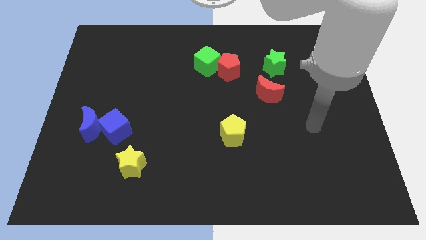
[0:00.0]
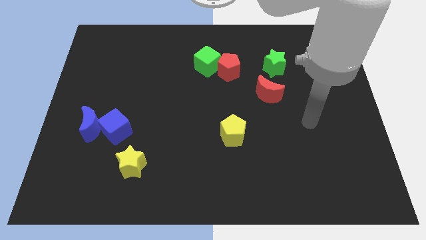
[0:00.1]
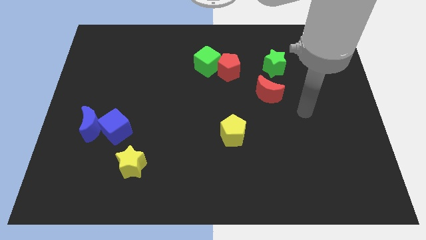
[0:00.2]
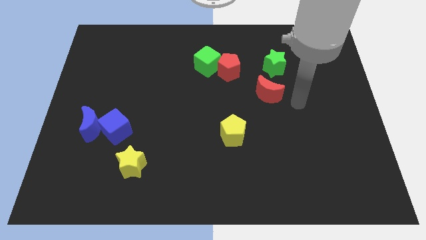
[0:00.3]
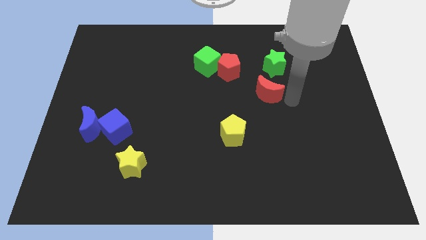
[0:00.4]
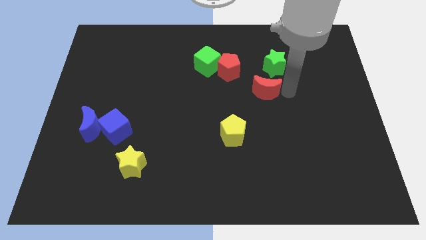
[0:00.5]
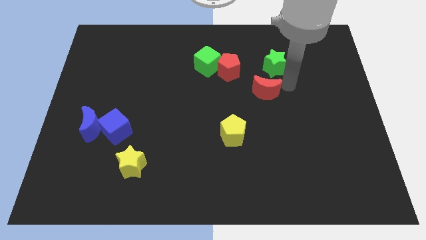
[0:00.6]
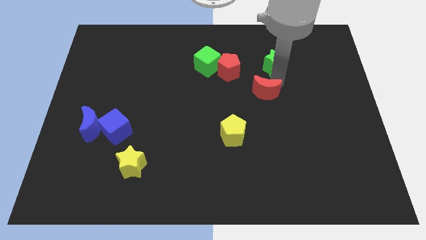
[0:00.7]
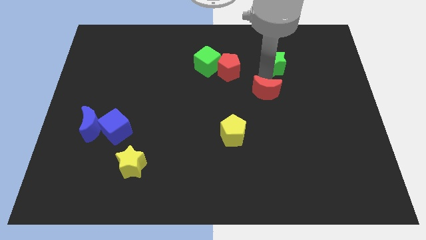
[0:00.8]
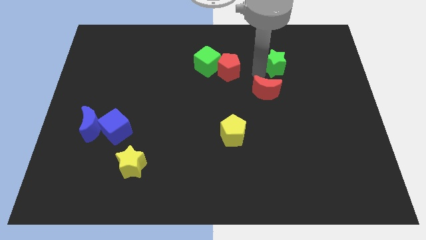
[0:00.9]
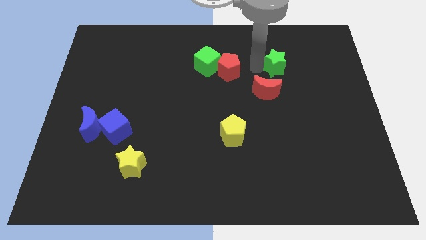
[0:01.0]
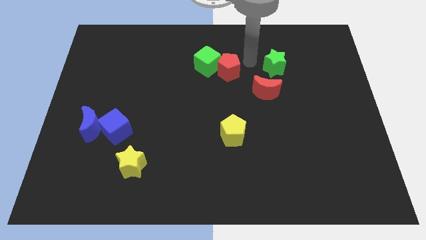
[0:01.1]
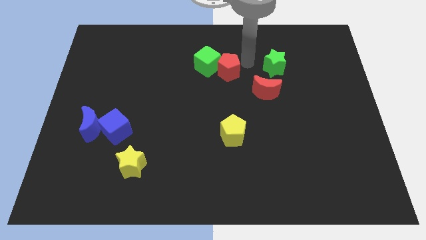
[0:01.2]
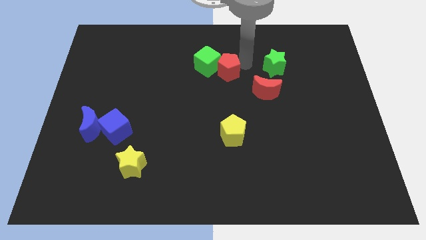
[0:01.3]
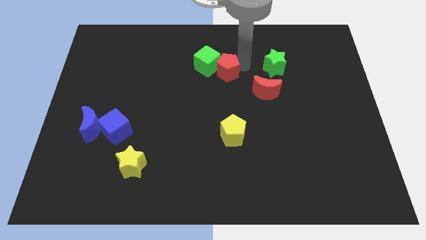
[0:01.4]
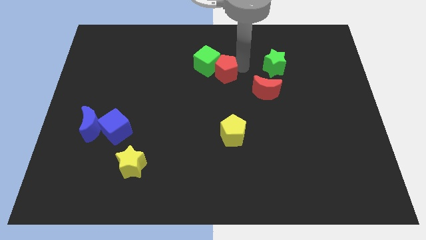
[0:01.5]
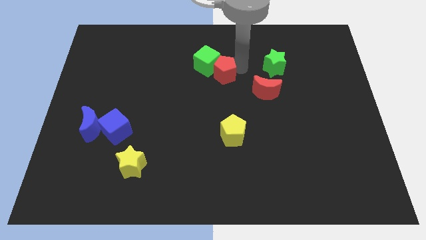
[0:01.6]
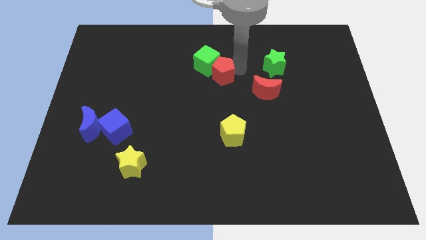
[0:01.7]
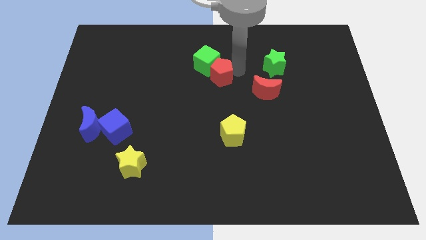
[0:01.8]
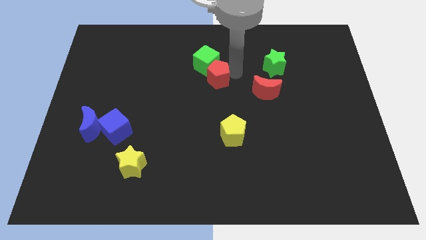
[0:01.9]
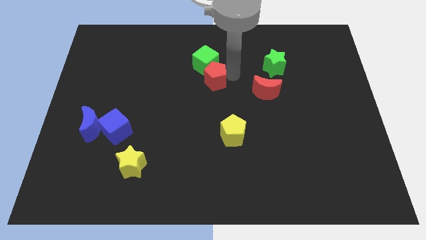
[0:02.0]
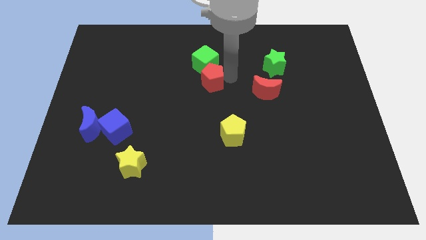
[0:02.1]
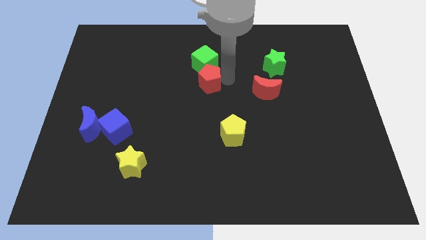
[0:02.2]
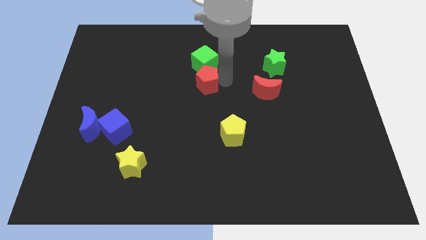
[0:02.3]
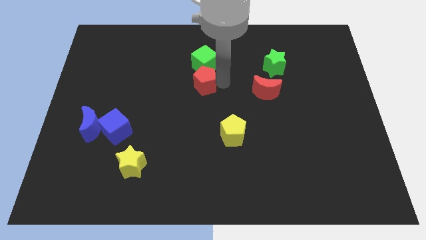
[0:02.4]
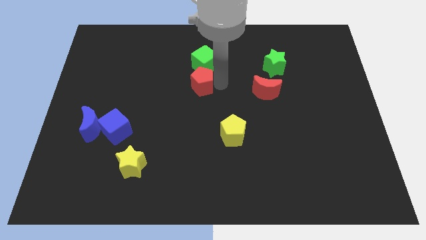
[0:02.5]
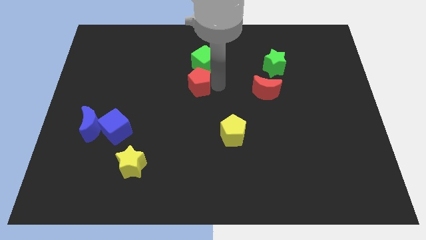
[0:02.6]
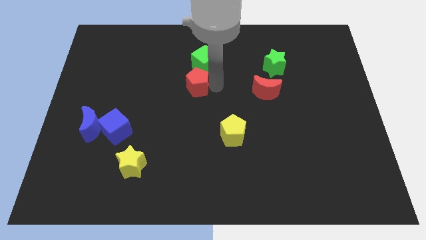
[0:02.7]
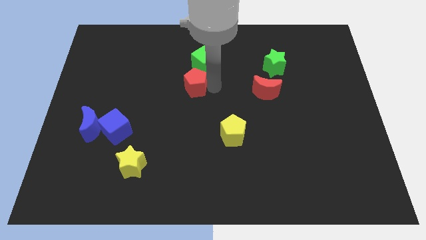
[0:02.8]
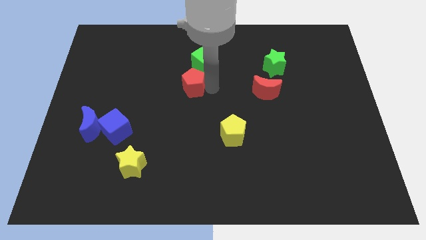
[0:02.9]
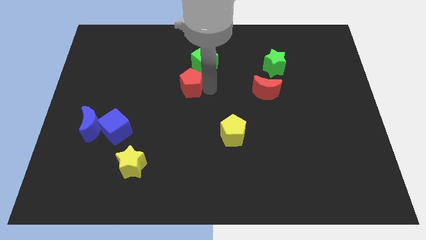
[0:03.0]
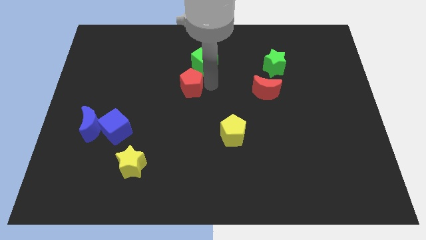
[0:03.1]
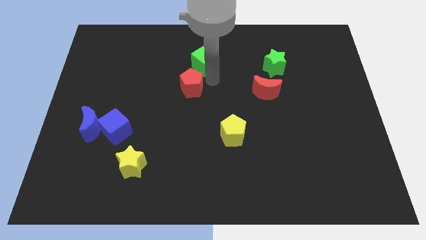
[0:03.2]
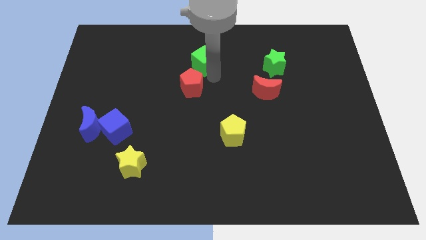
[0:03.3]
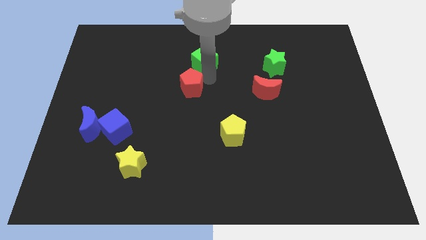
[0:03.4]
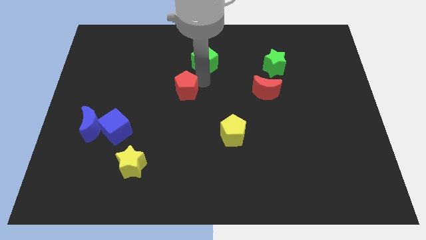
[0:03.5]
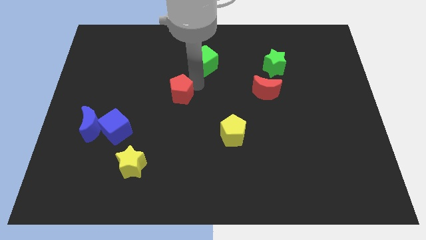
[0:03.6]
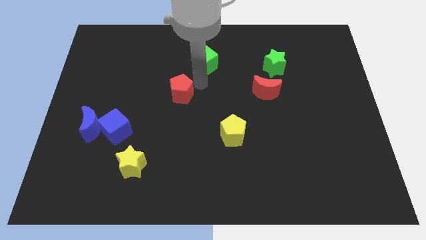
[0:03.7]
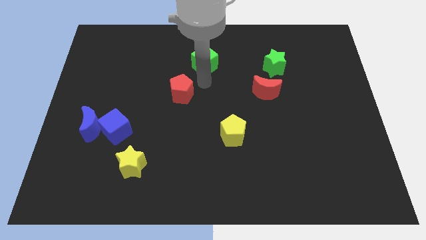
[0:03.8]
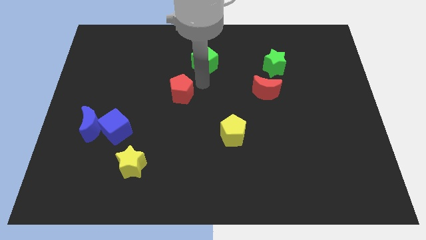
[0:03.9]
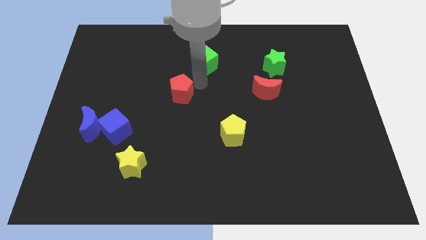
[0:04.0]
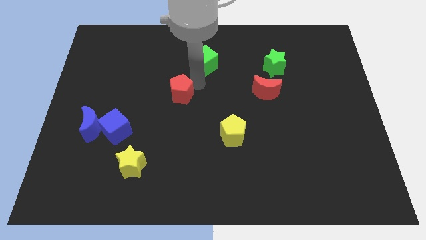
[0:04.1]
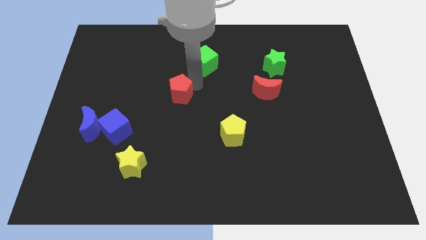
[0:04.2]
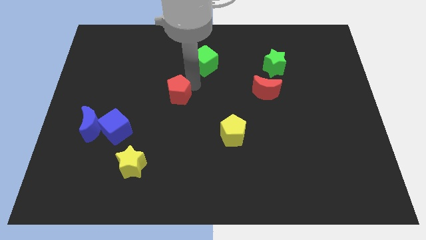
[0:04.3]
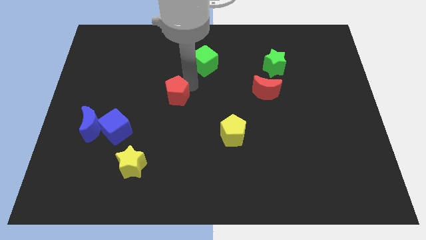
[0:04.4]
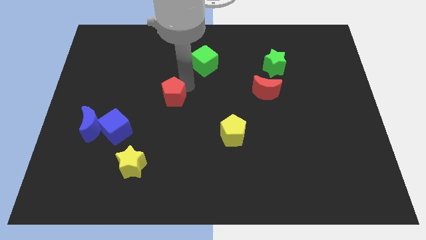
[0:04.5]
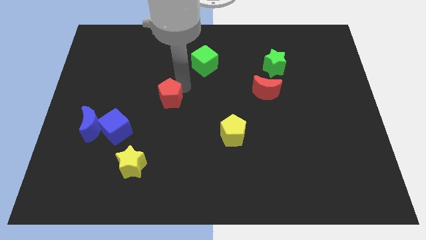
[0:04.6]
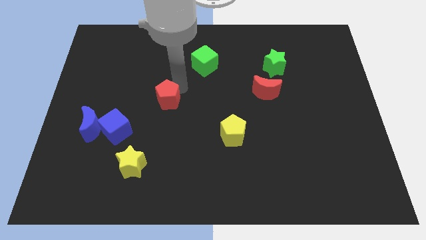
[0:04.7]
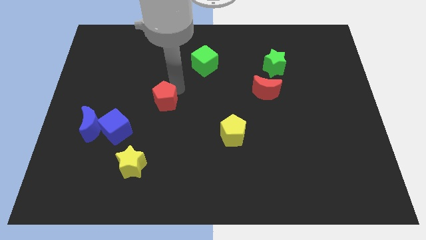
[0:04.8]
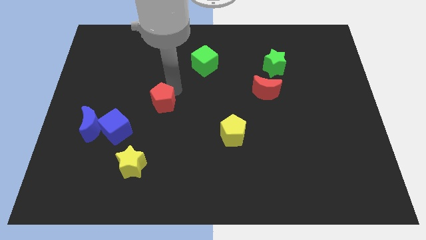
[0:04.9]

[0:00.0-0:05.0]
slide the red pentagon to the top right of the blue cube

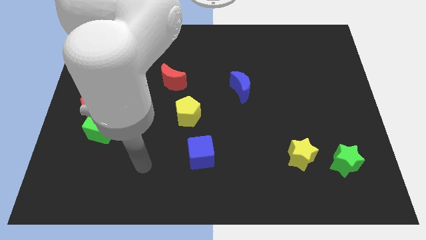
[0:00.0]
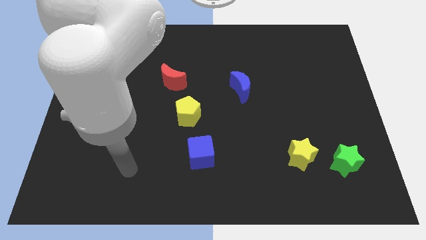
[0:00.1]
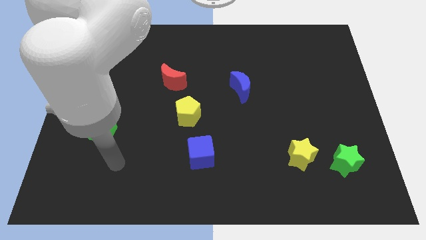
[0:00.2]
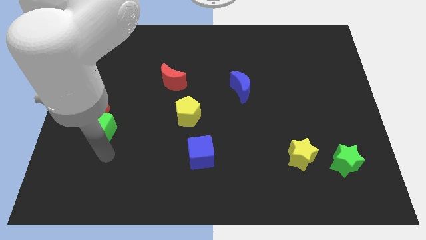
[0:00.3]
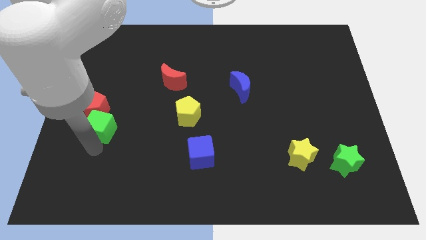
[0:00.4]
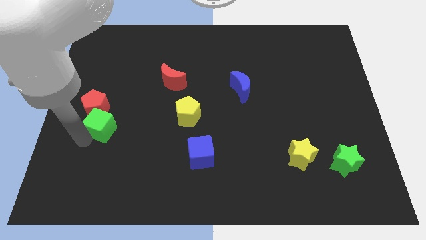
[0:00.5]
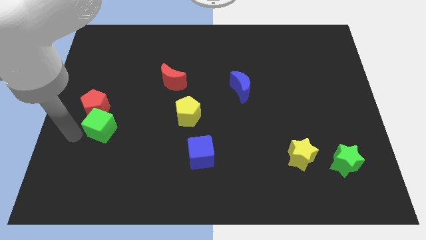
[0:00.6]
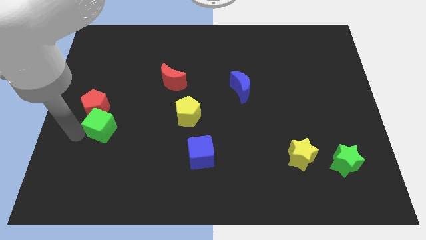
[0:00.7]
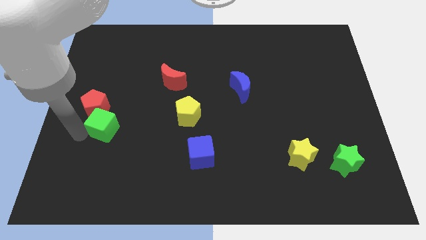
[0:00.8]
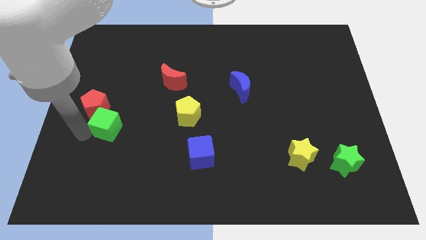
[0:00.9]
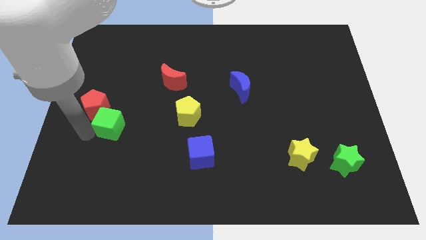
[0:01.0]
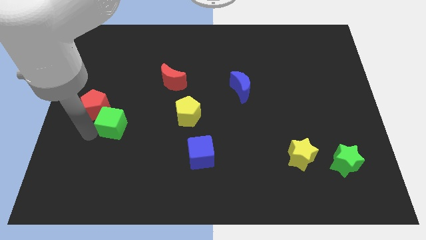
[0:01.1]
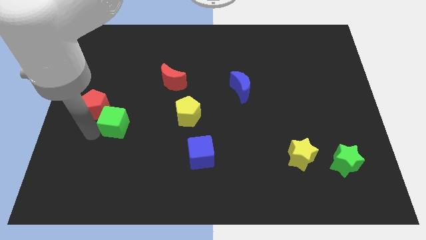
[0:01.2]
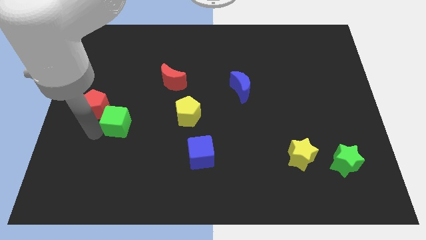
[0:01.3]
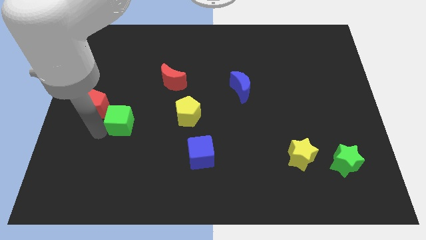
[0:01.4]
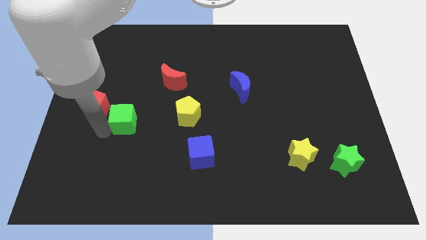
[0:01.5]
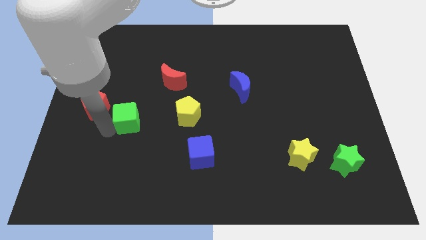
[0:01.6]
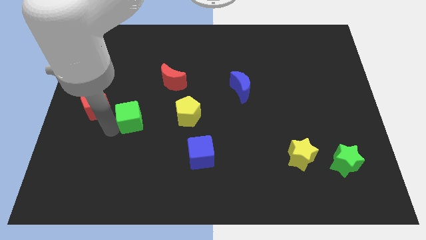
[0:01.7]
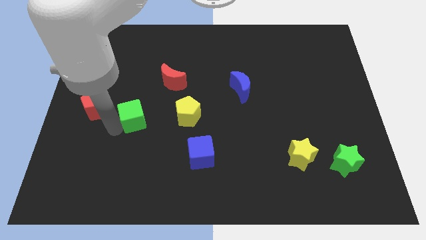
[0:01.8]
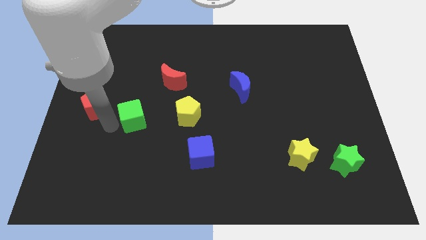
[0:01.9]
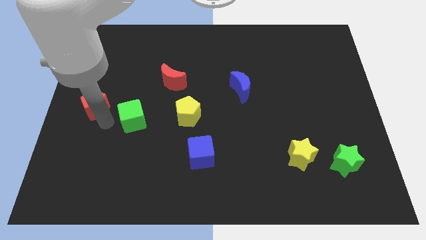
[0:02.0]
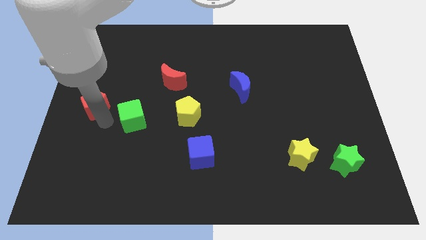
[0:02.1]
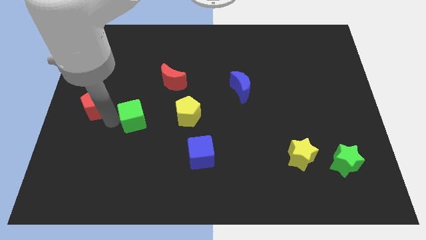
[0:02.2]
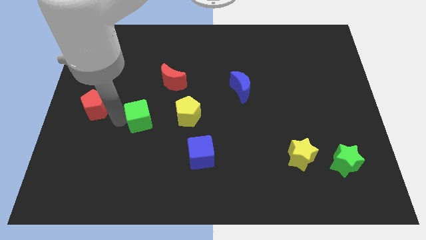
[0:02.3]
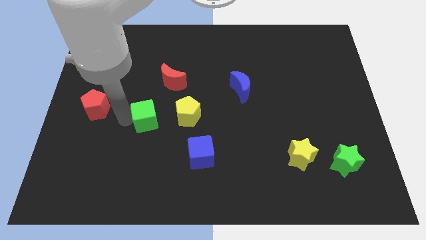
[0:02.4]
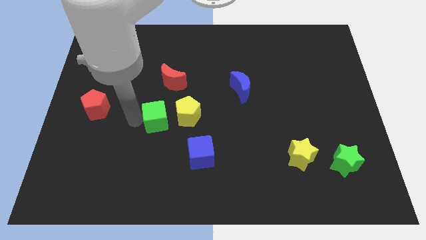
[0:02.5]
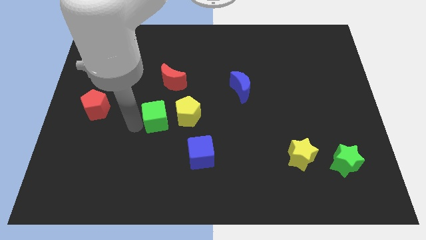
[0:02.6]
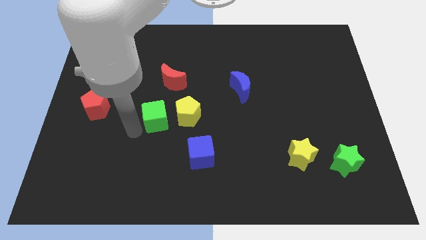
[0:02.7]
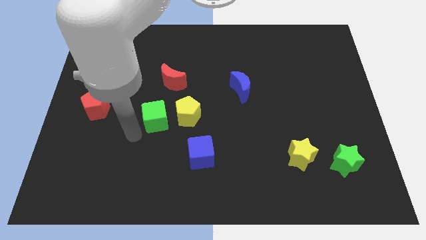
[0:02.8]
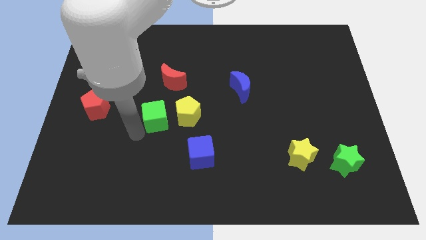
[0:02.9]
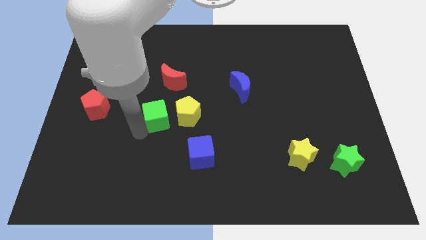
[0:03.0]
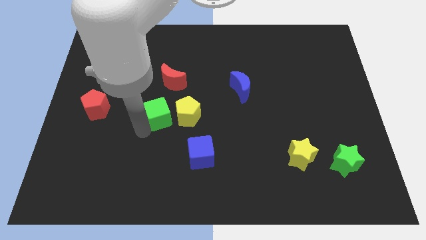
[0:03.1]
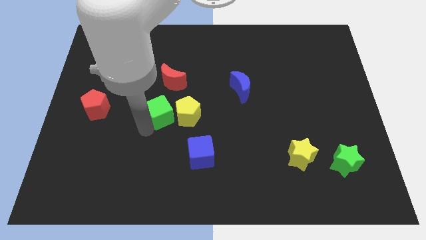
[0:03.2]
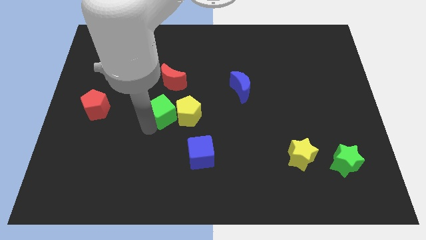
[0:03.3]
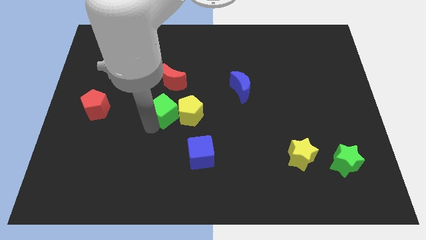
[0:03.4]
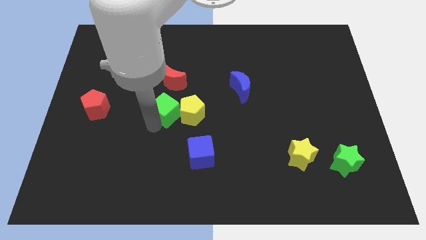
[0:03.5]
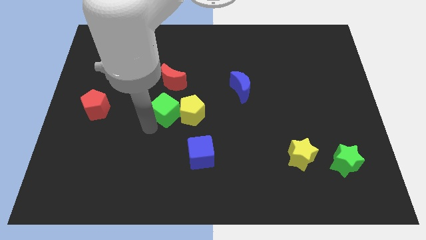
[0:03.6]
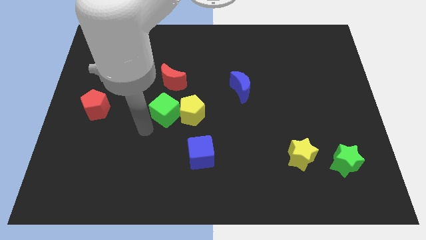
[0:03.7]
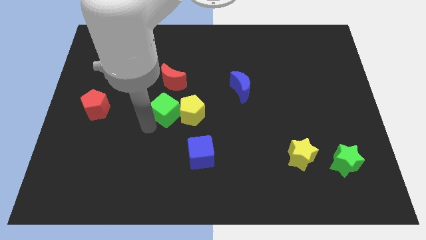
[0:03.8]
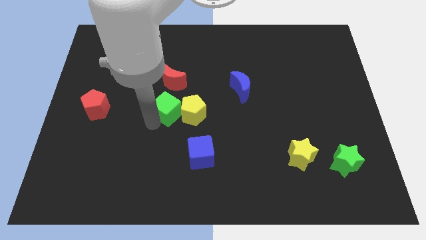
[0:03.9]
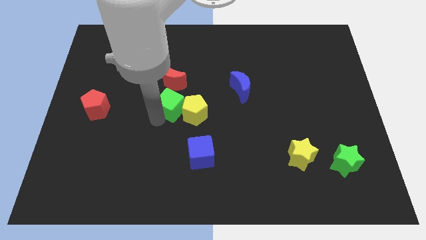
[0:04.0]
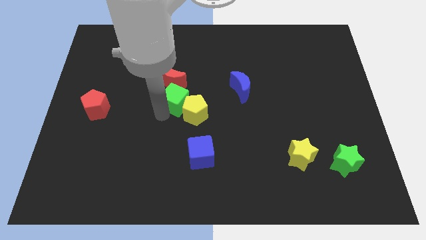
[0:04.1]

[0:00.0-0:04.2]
put the green cube to the bottom right of the red moon
